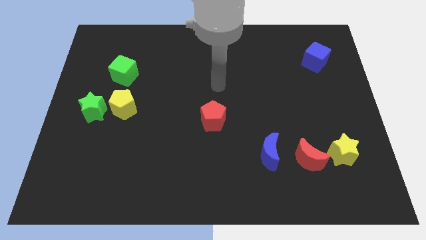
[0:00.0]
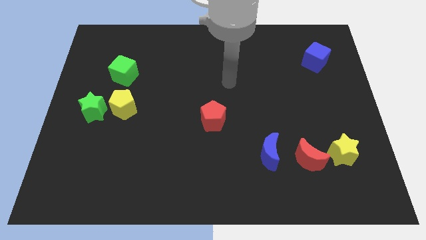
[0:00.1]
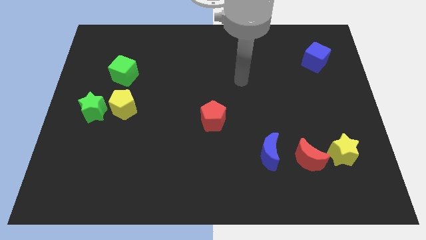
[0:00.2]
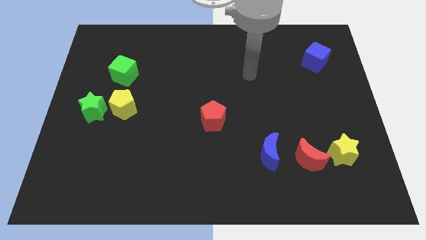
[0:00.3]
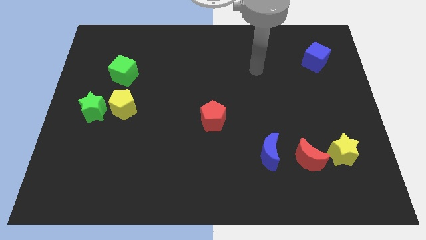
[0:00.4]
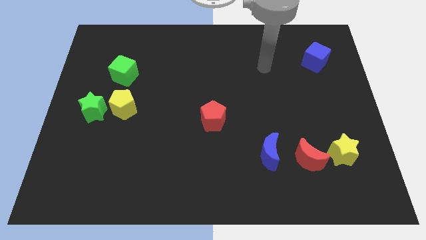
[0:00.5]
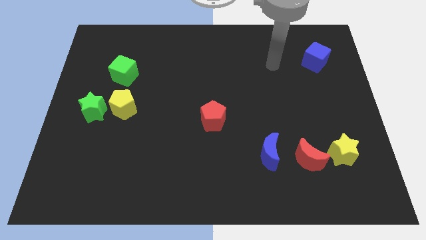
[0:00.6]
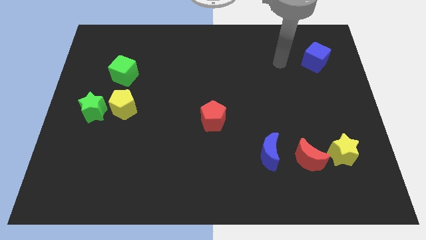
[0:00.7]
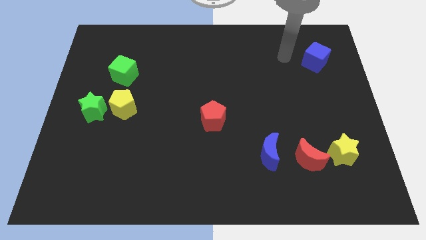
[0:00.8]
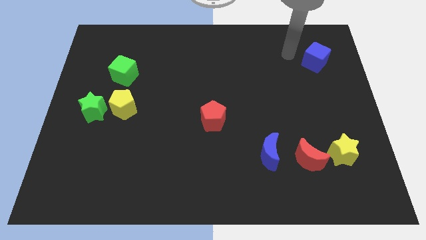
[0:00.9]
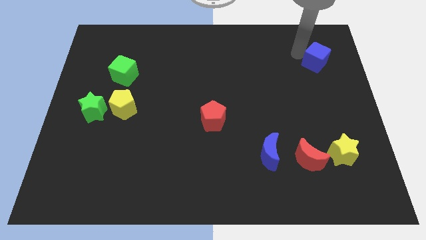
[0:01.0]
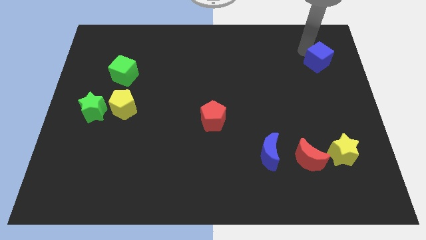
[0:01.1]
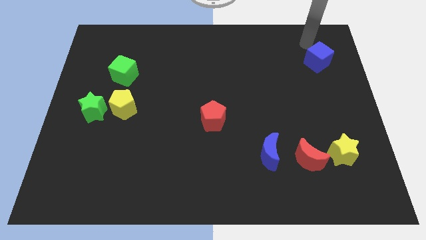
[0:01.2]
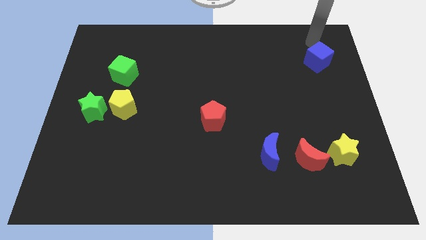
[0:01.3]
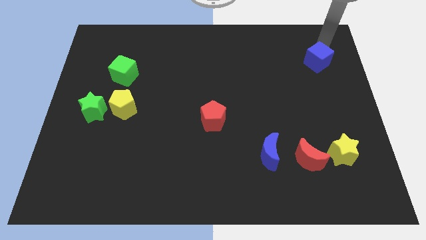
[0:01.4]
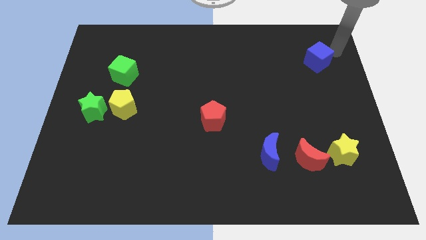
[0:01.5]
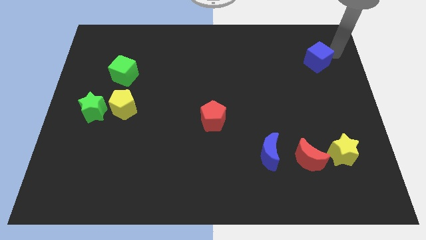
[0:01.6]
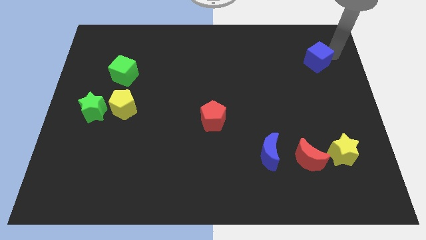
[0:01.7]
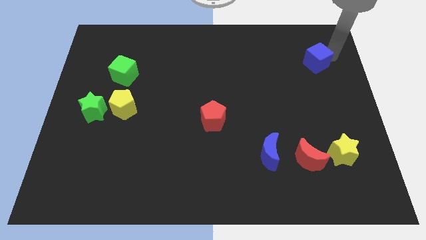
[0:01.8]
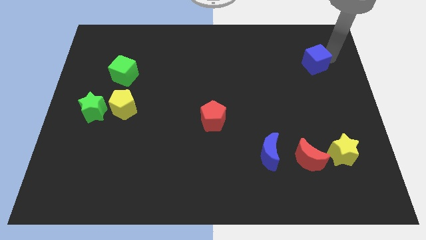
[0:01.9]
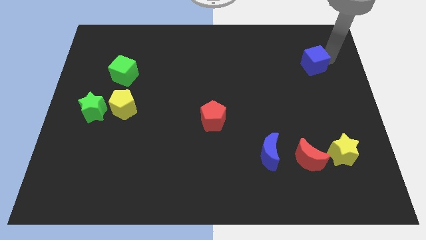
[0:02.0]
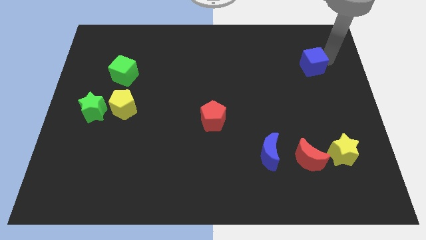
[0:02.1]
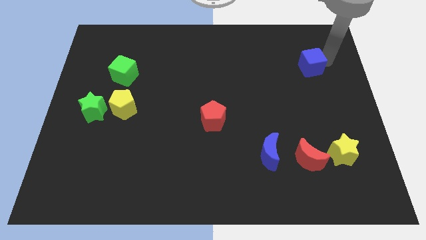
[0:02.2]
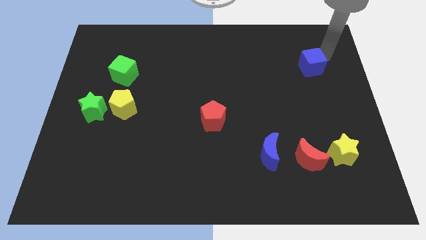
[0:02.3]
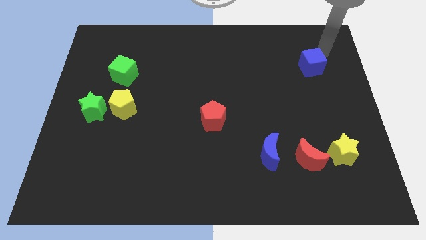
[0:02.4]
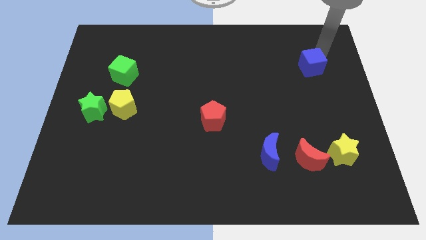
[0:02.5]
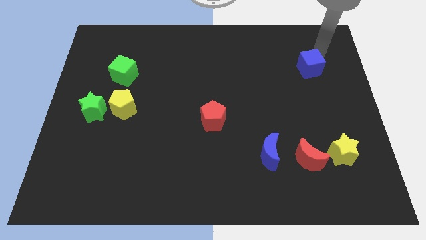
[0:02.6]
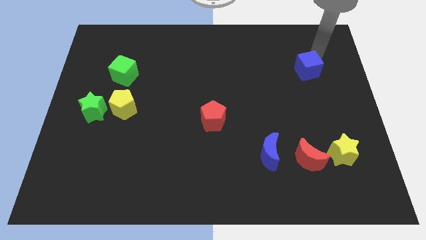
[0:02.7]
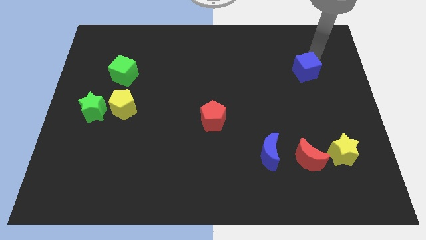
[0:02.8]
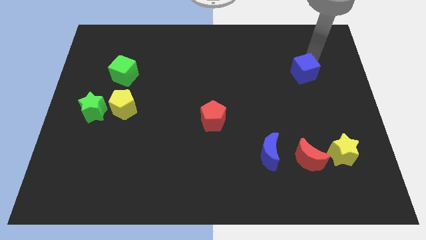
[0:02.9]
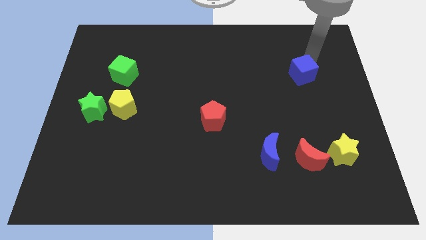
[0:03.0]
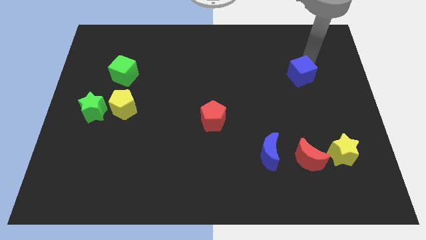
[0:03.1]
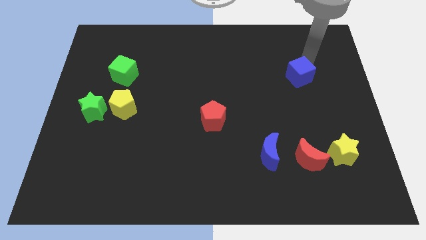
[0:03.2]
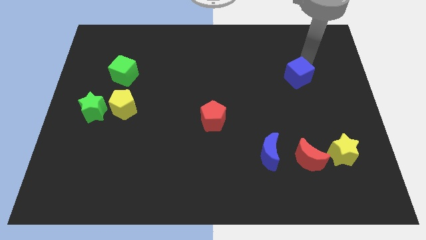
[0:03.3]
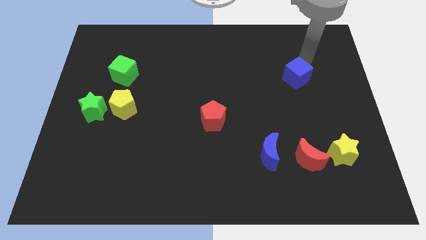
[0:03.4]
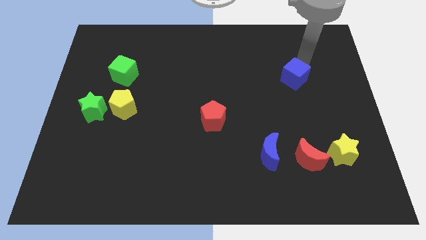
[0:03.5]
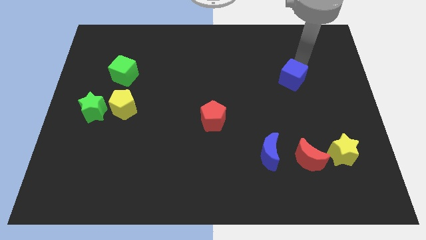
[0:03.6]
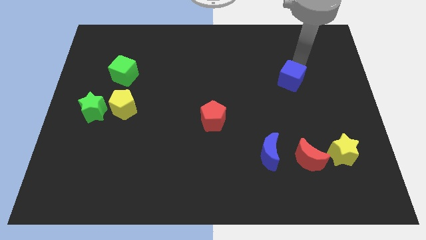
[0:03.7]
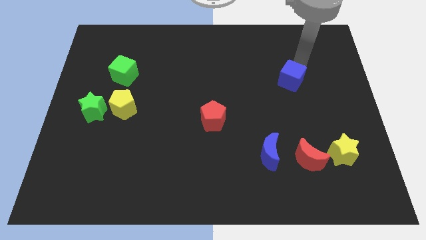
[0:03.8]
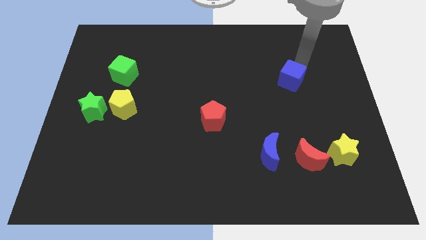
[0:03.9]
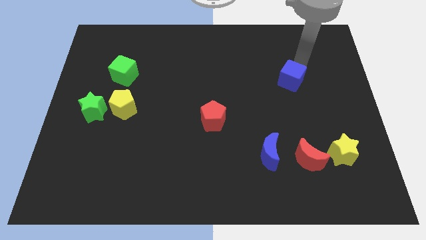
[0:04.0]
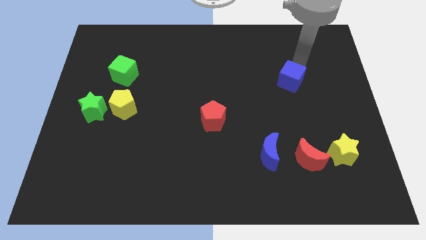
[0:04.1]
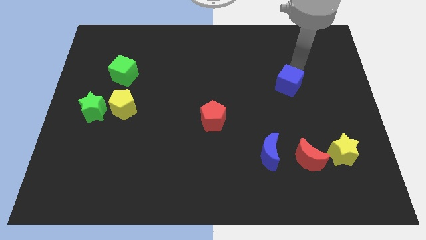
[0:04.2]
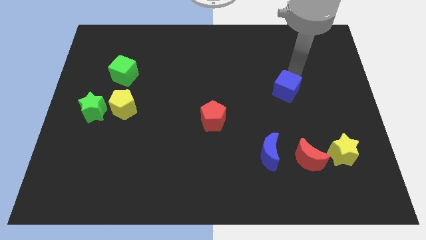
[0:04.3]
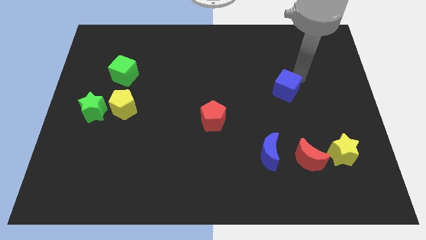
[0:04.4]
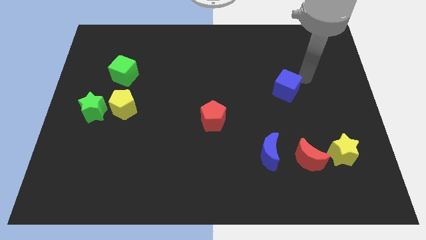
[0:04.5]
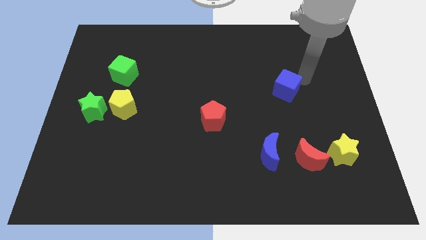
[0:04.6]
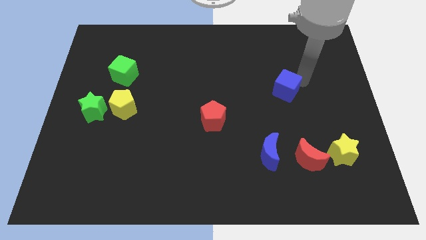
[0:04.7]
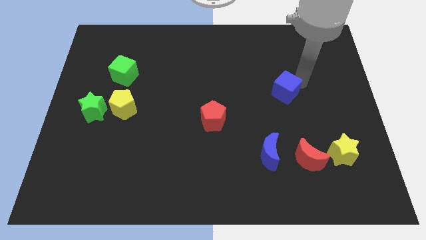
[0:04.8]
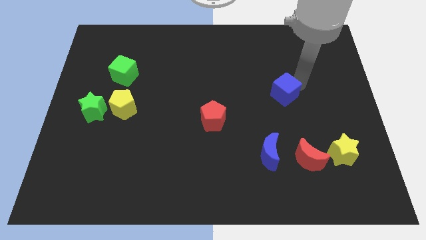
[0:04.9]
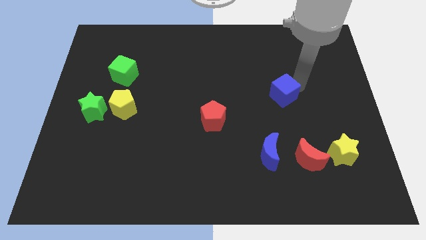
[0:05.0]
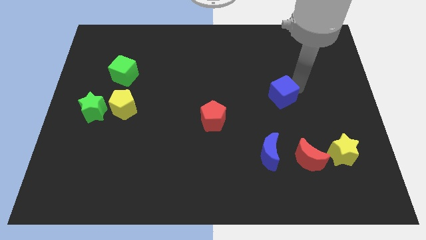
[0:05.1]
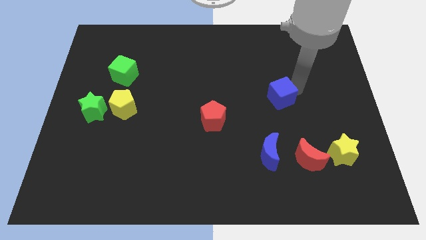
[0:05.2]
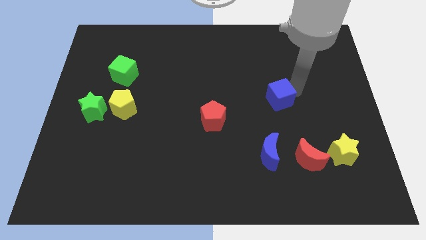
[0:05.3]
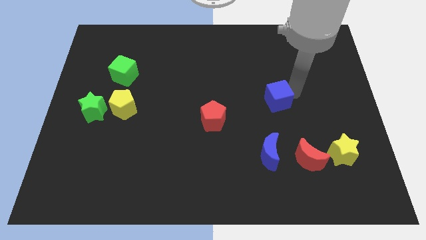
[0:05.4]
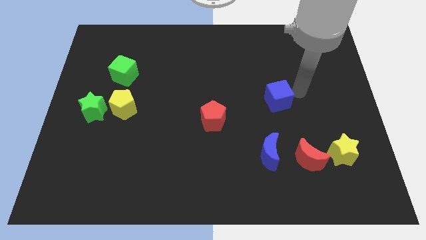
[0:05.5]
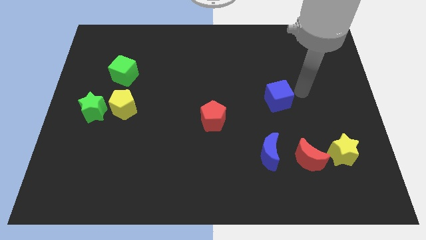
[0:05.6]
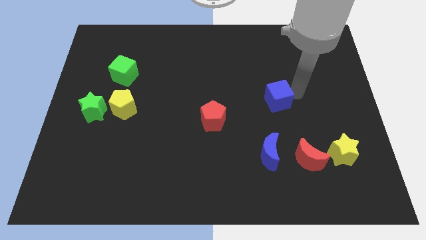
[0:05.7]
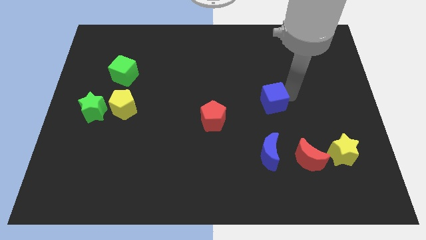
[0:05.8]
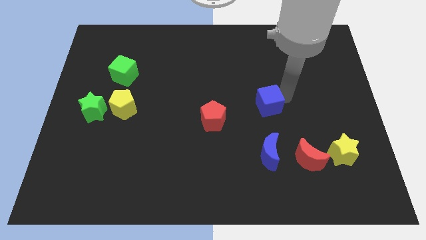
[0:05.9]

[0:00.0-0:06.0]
push the blue cube diagonally down and left

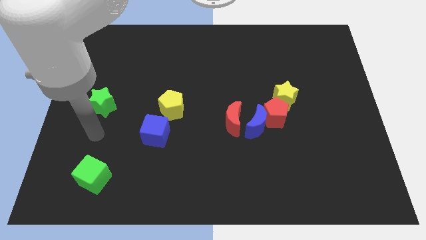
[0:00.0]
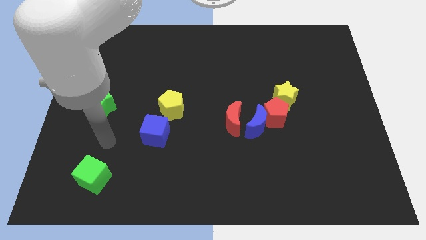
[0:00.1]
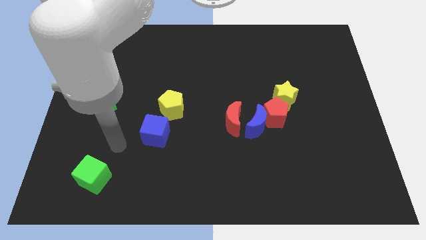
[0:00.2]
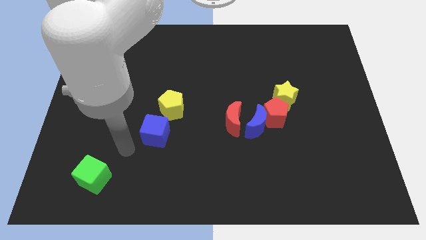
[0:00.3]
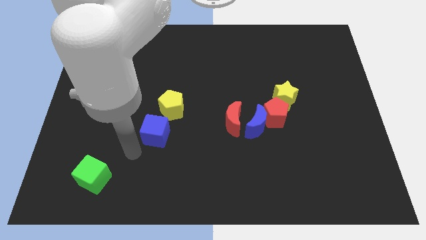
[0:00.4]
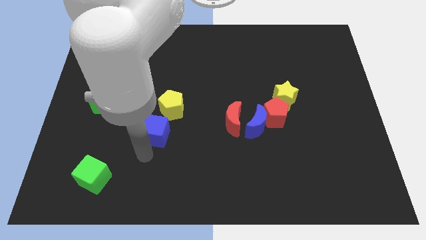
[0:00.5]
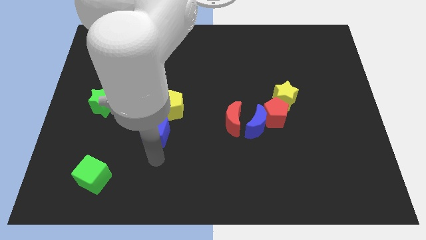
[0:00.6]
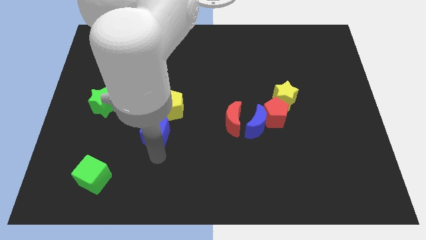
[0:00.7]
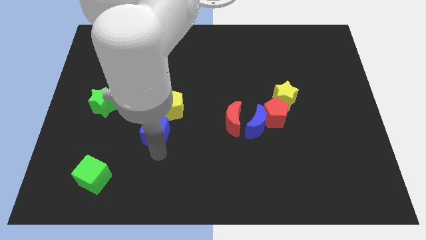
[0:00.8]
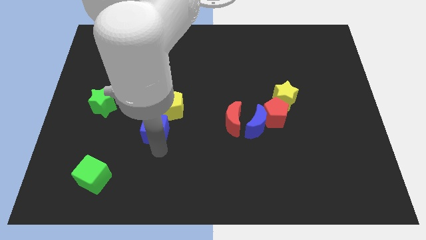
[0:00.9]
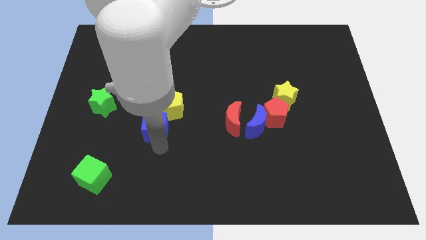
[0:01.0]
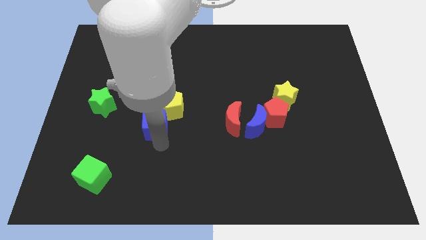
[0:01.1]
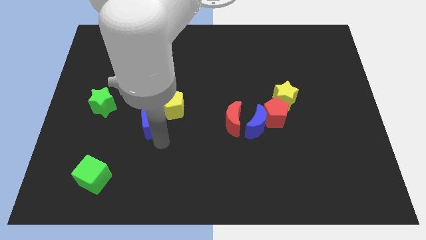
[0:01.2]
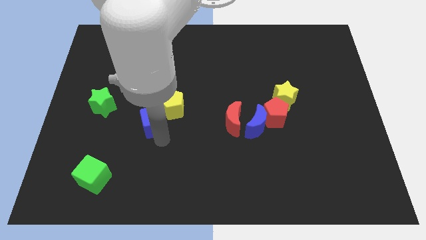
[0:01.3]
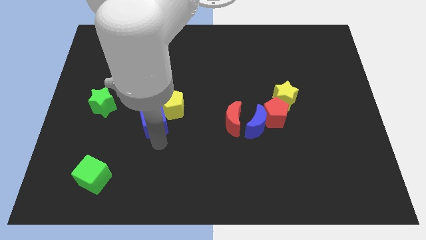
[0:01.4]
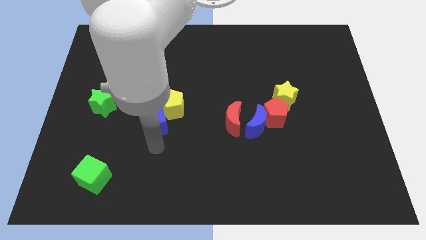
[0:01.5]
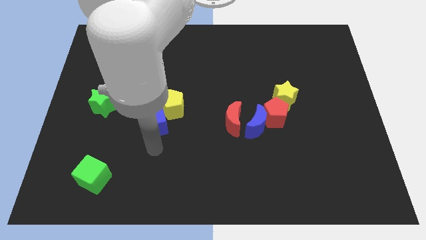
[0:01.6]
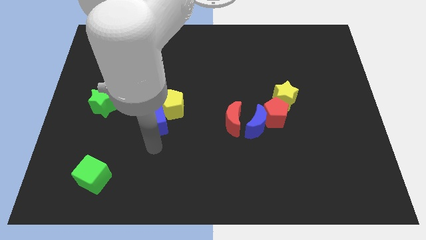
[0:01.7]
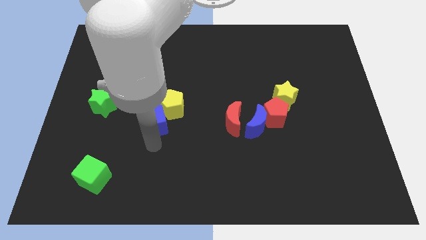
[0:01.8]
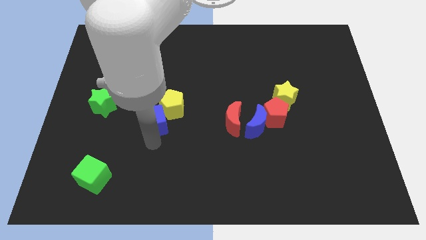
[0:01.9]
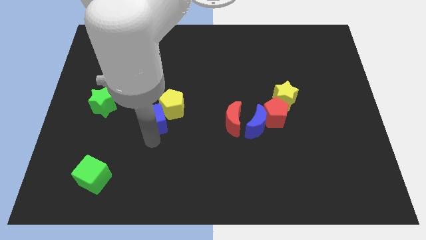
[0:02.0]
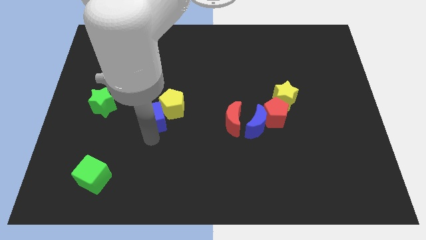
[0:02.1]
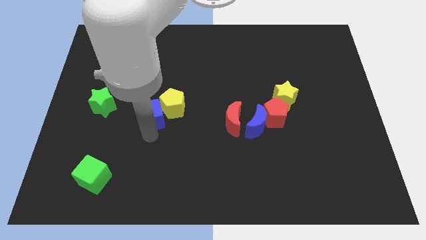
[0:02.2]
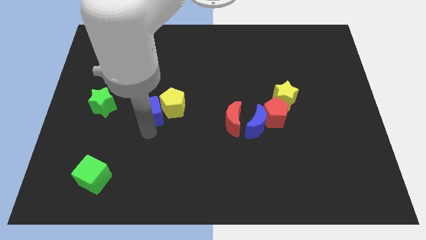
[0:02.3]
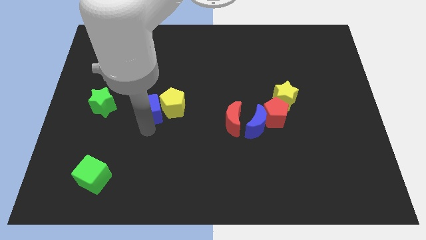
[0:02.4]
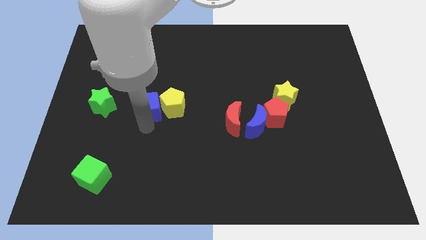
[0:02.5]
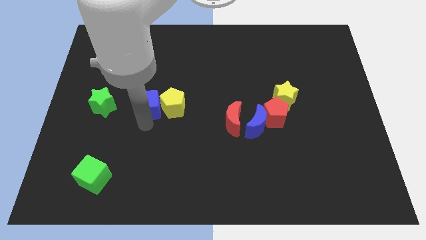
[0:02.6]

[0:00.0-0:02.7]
slide the blue cube up a little bit
